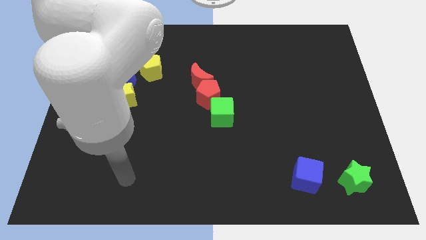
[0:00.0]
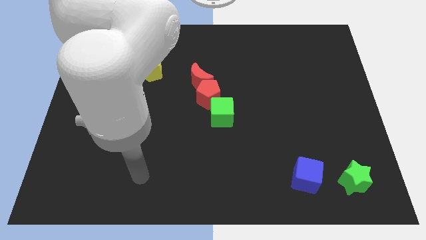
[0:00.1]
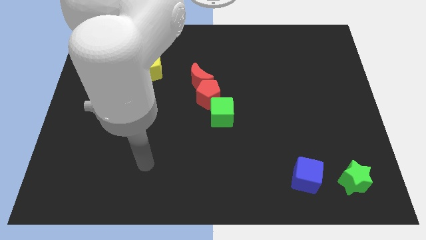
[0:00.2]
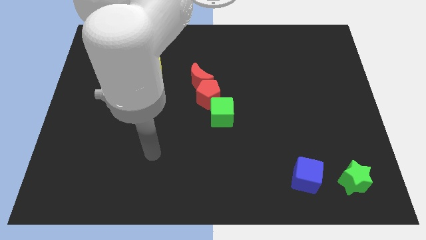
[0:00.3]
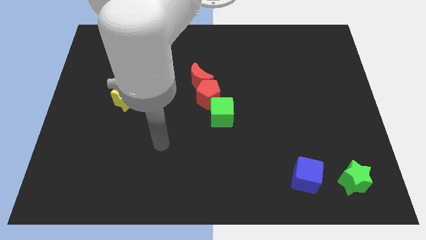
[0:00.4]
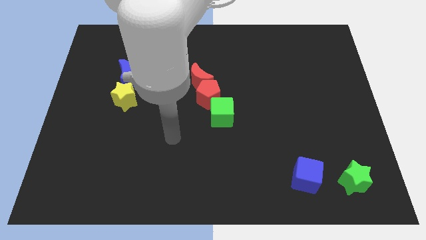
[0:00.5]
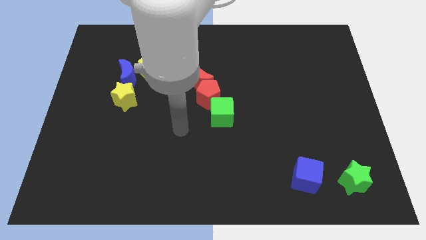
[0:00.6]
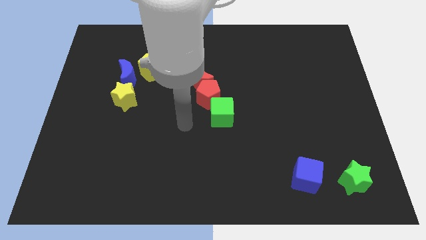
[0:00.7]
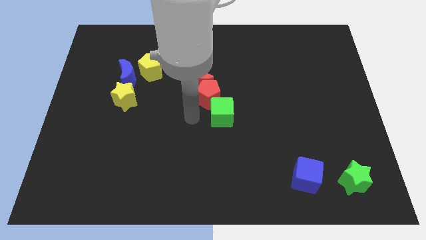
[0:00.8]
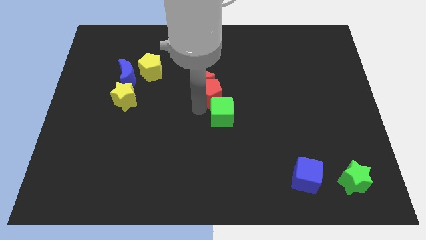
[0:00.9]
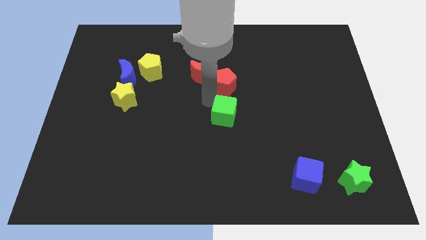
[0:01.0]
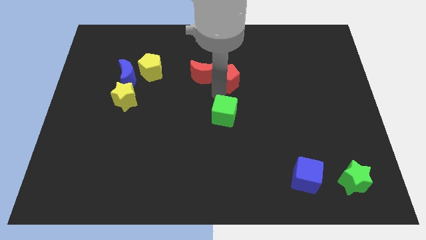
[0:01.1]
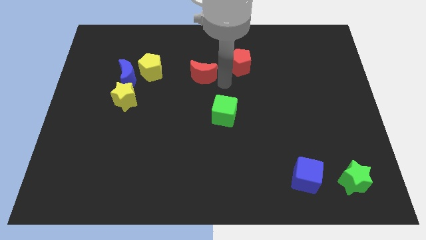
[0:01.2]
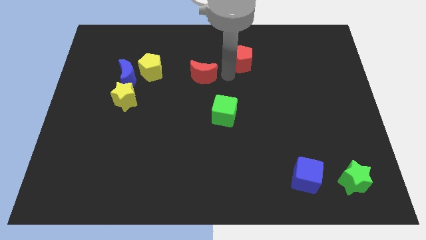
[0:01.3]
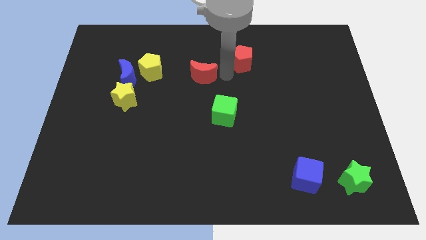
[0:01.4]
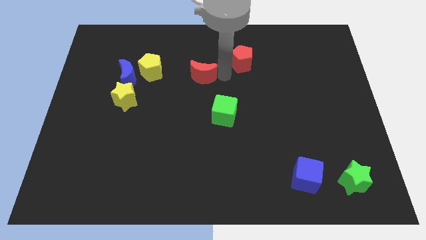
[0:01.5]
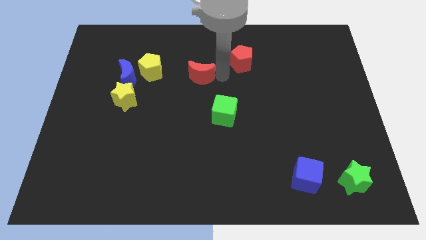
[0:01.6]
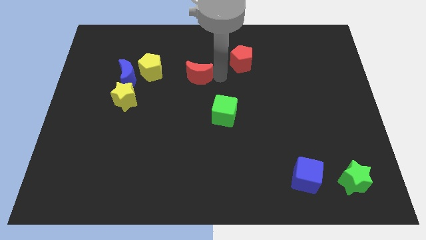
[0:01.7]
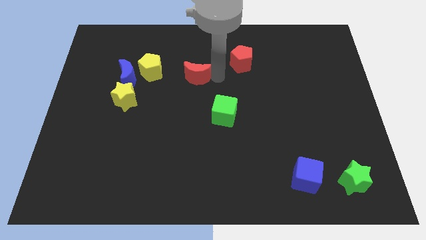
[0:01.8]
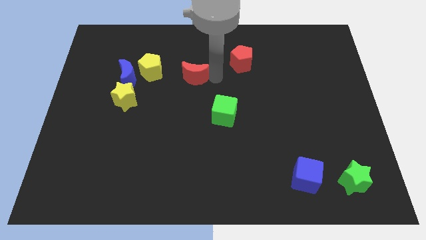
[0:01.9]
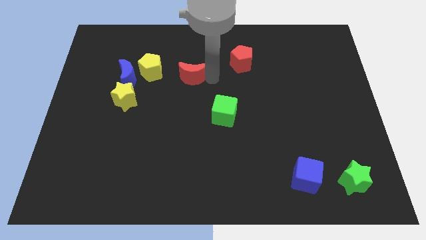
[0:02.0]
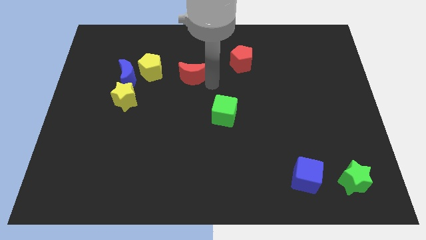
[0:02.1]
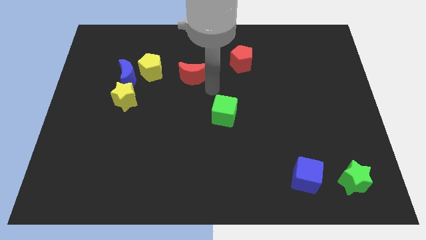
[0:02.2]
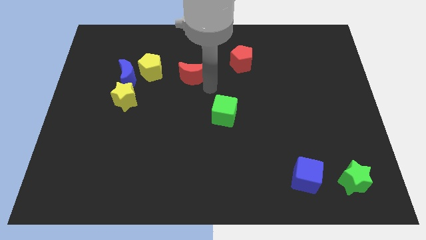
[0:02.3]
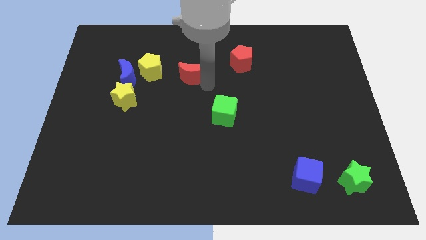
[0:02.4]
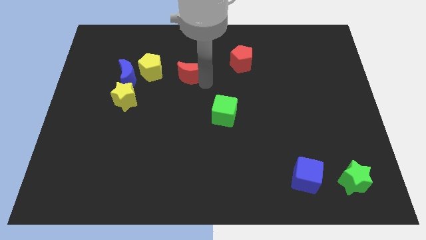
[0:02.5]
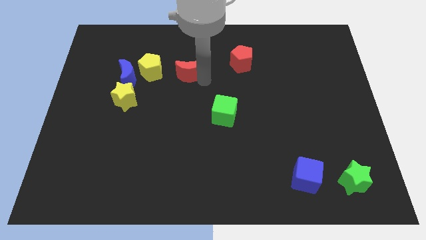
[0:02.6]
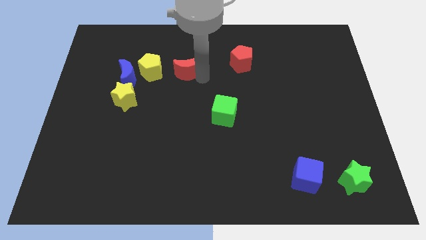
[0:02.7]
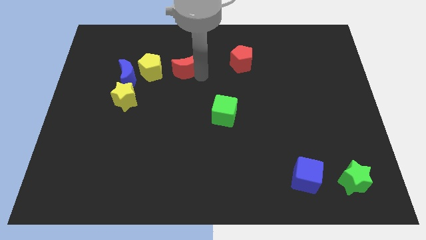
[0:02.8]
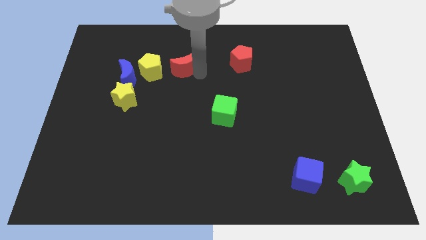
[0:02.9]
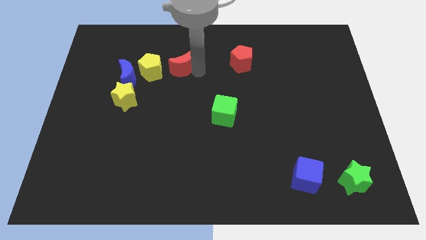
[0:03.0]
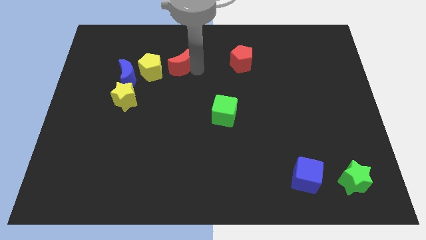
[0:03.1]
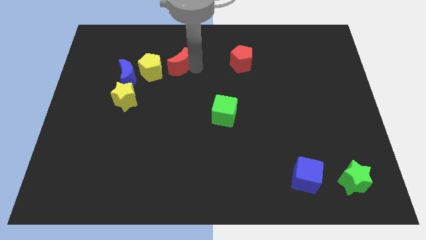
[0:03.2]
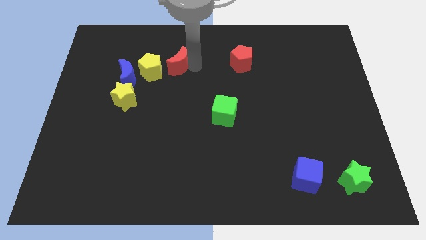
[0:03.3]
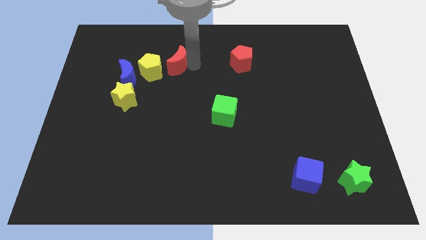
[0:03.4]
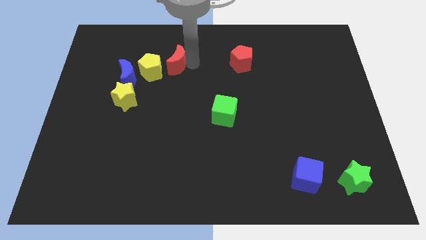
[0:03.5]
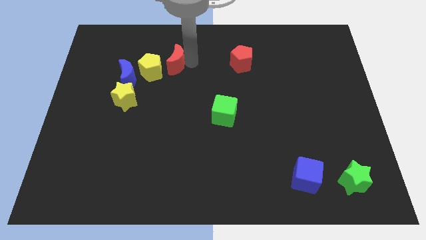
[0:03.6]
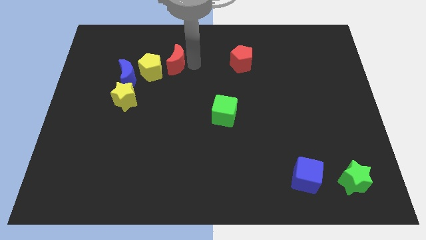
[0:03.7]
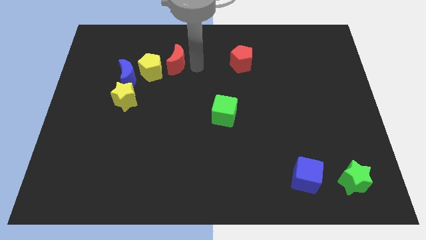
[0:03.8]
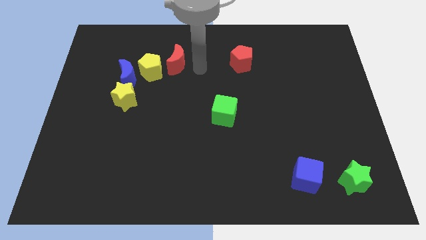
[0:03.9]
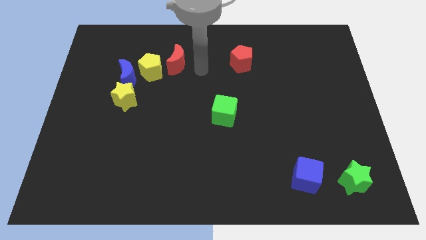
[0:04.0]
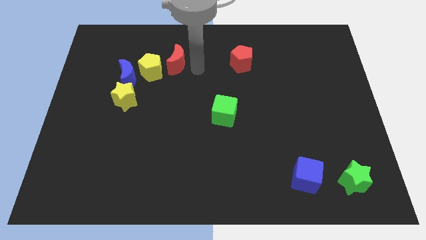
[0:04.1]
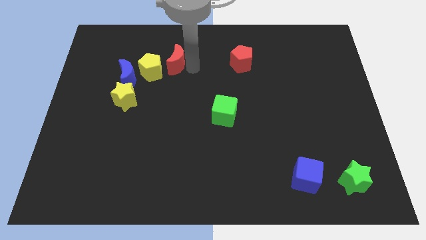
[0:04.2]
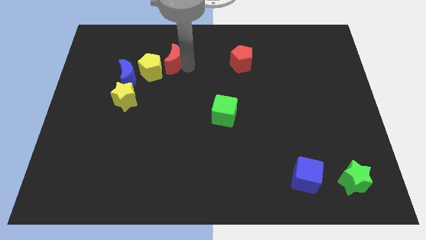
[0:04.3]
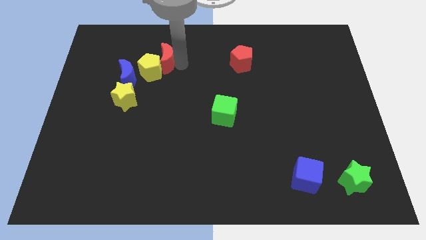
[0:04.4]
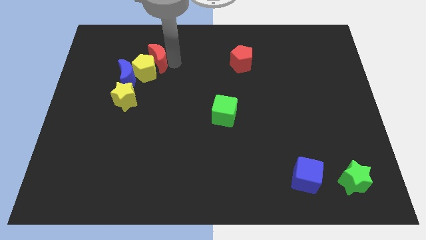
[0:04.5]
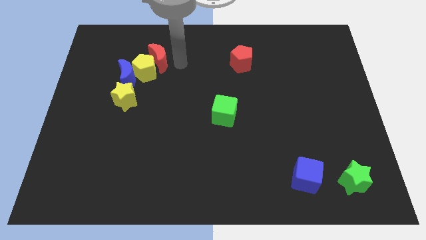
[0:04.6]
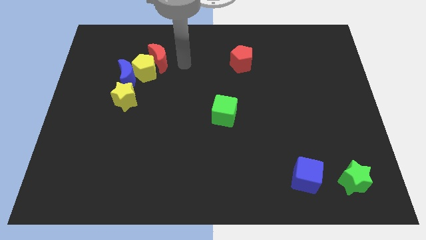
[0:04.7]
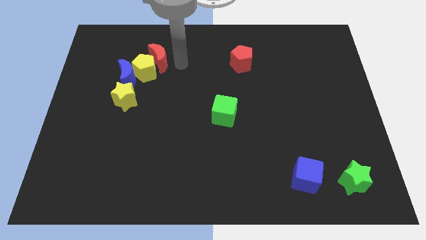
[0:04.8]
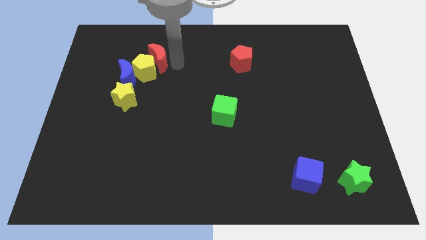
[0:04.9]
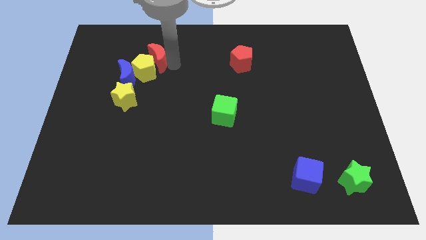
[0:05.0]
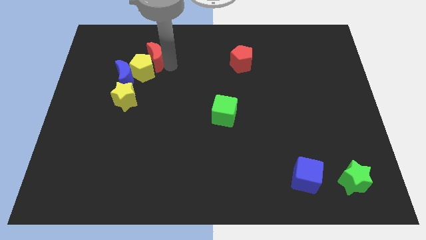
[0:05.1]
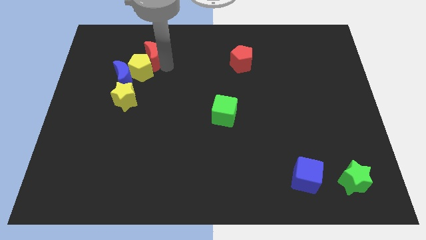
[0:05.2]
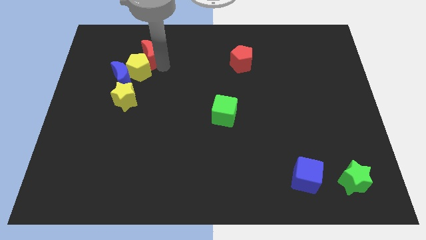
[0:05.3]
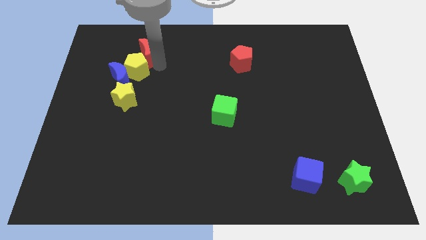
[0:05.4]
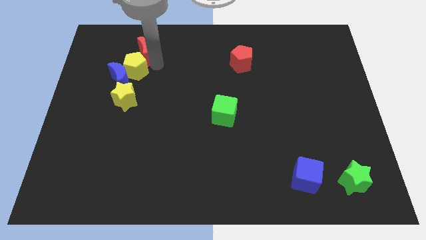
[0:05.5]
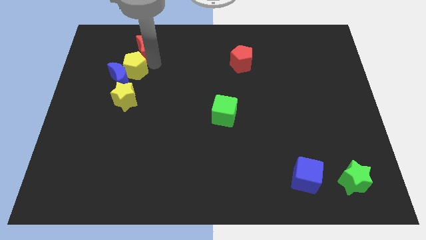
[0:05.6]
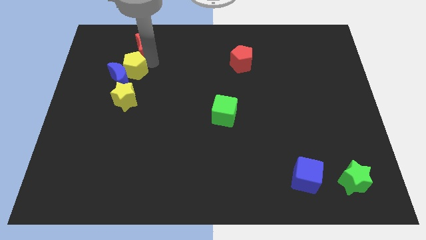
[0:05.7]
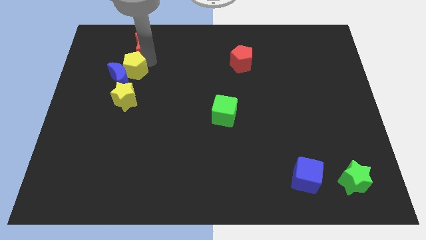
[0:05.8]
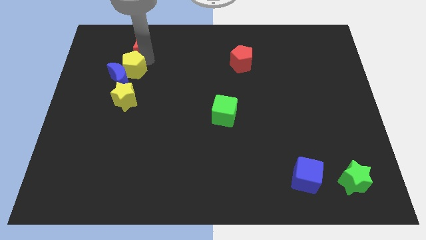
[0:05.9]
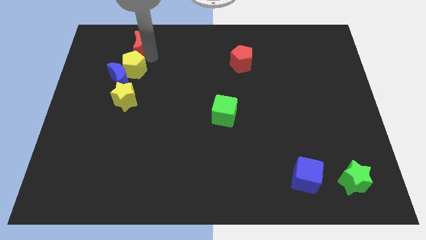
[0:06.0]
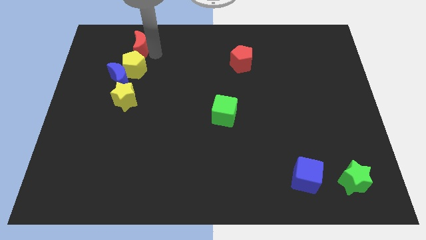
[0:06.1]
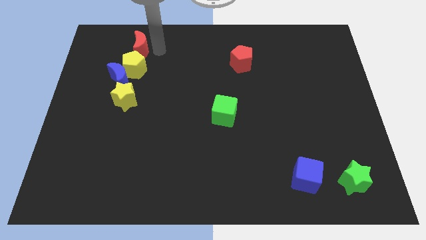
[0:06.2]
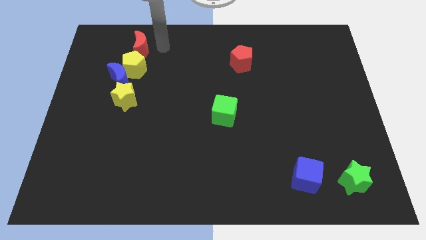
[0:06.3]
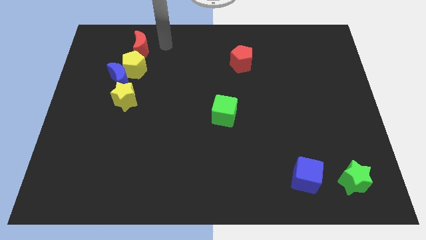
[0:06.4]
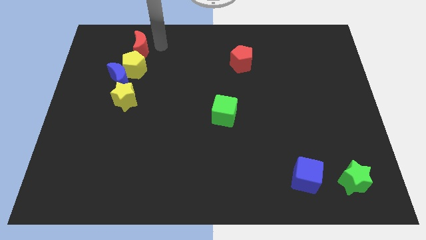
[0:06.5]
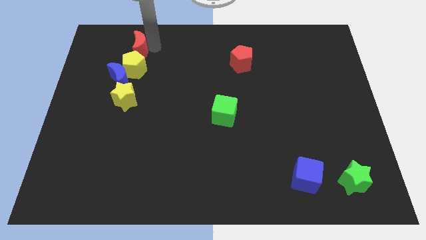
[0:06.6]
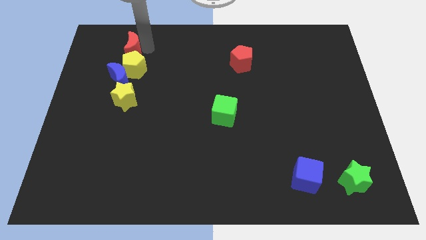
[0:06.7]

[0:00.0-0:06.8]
put the red moon to the top left of the yellow pentagon

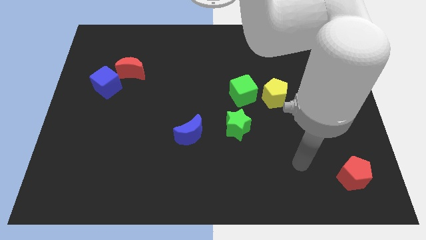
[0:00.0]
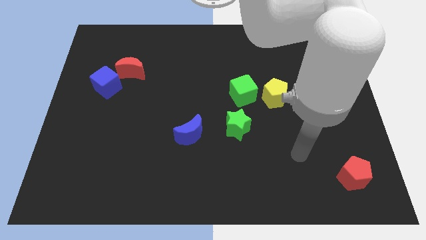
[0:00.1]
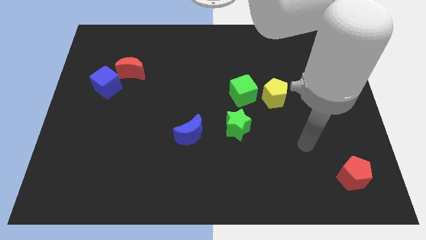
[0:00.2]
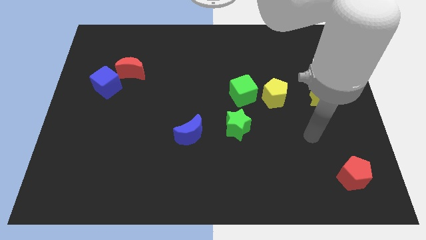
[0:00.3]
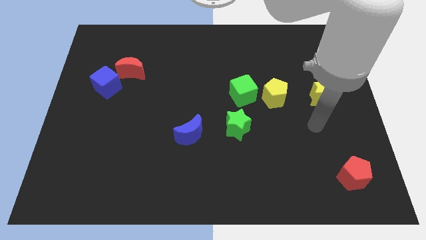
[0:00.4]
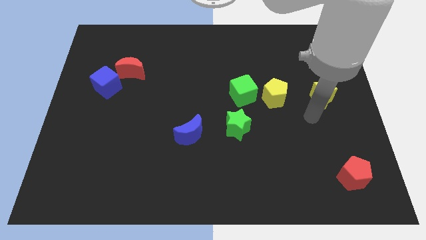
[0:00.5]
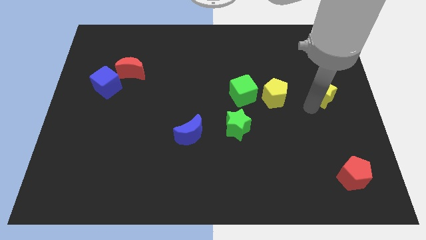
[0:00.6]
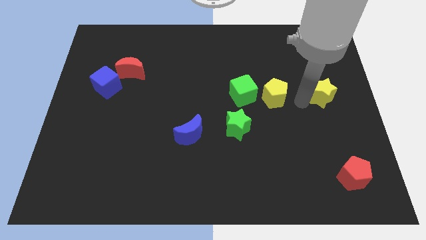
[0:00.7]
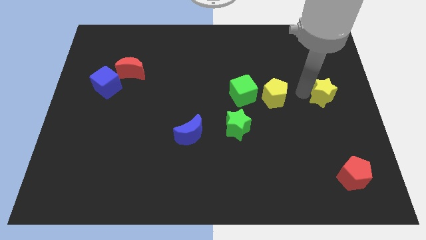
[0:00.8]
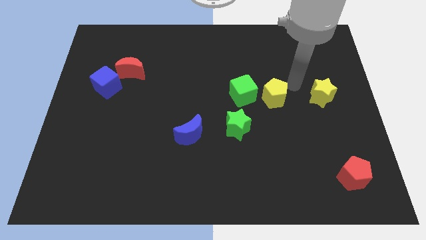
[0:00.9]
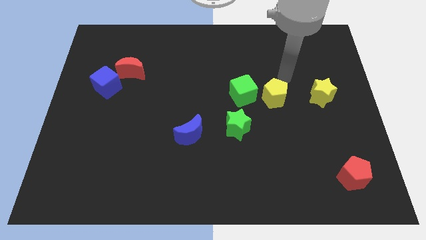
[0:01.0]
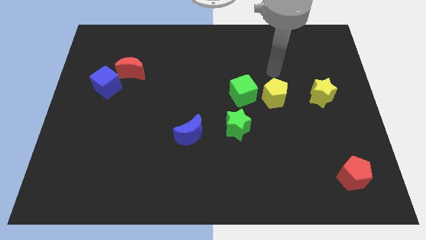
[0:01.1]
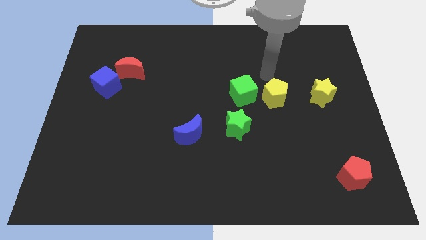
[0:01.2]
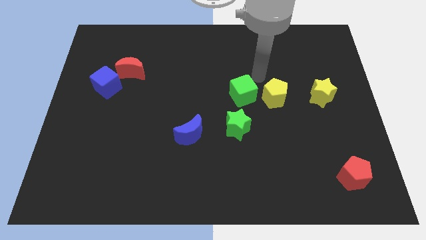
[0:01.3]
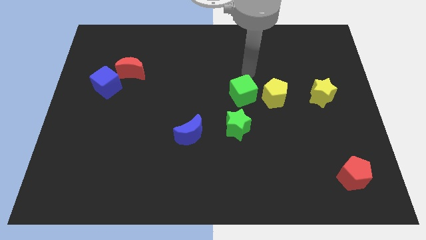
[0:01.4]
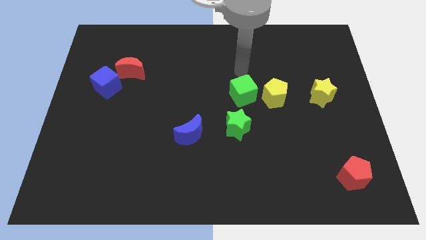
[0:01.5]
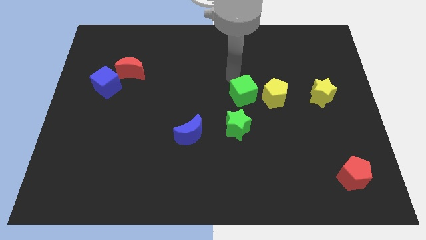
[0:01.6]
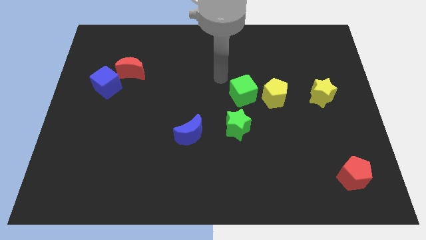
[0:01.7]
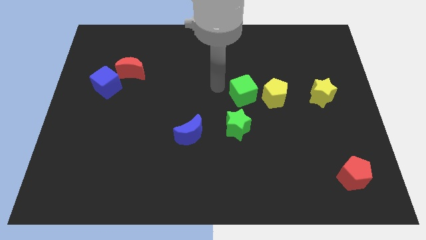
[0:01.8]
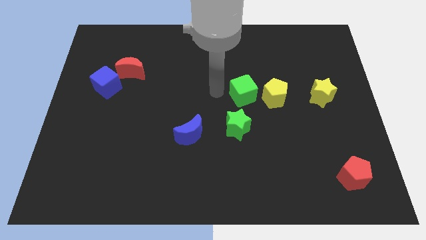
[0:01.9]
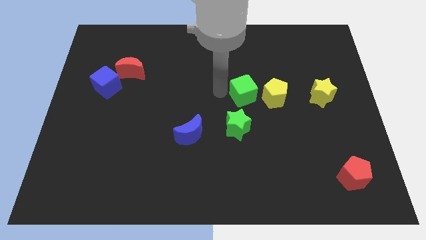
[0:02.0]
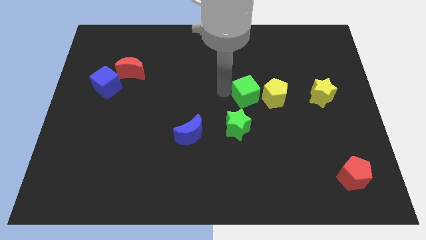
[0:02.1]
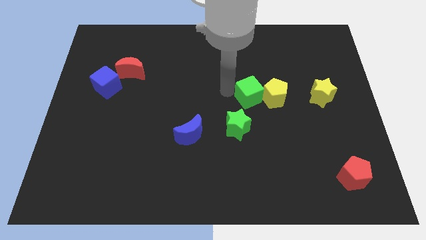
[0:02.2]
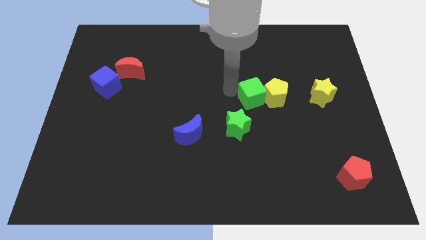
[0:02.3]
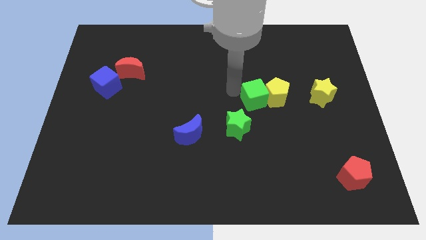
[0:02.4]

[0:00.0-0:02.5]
put the green cube to the left side of the yellow star
